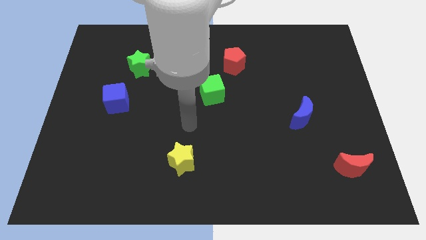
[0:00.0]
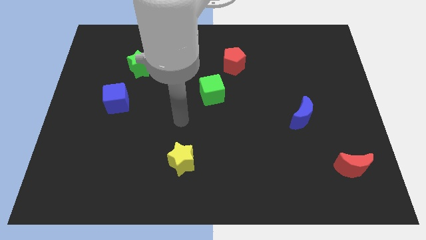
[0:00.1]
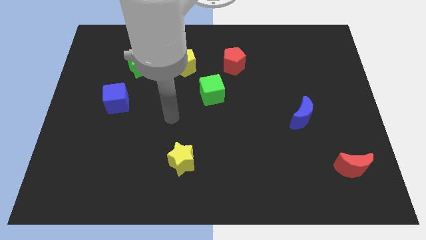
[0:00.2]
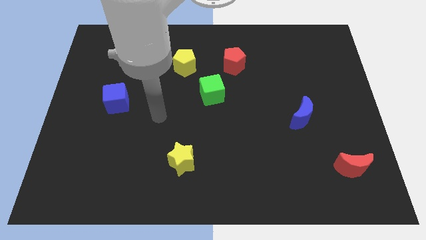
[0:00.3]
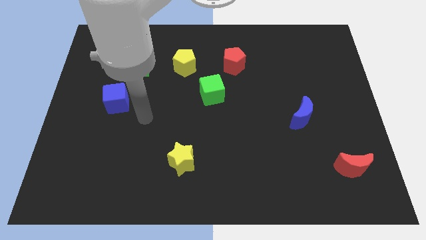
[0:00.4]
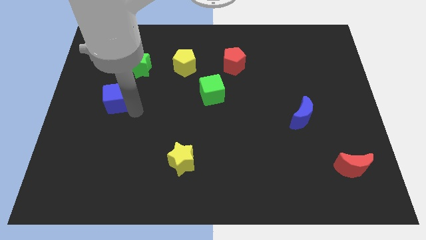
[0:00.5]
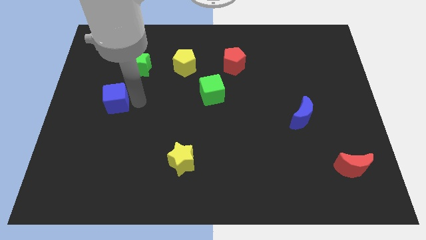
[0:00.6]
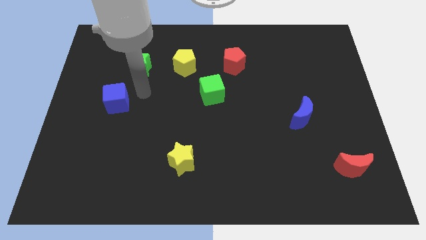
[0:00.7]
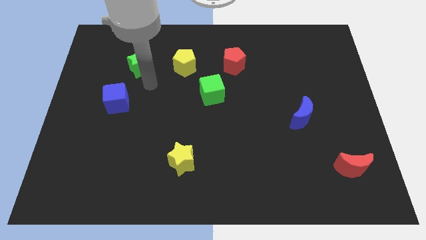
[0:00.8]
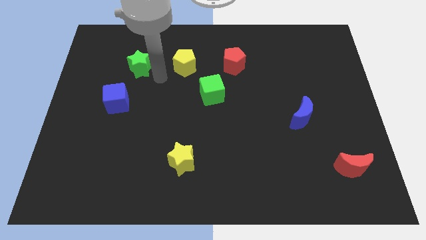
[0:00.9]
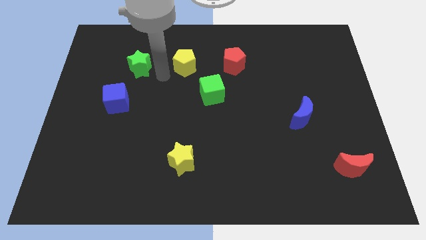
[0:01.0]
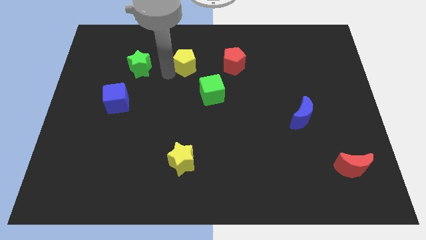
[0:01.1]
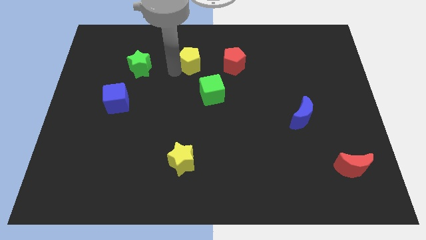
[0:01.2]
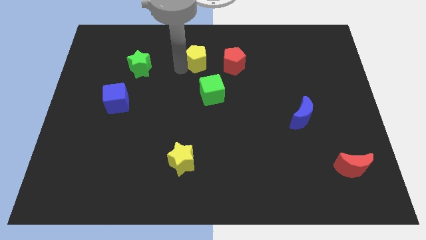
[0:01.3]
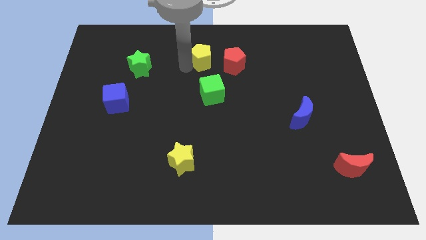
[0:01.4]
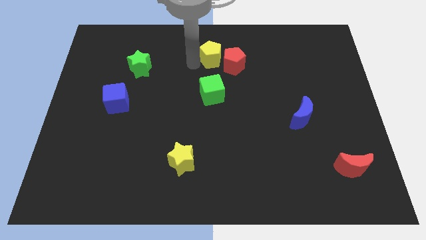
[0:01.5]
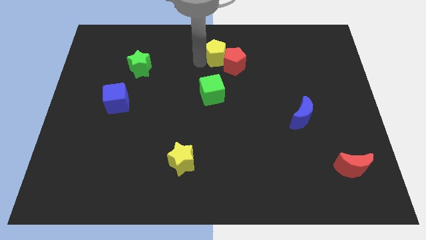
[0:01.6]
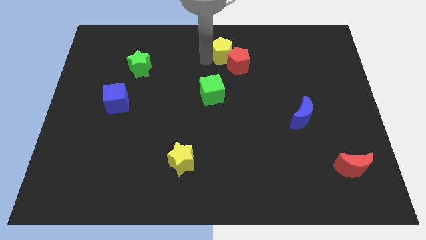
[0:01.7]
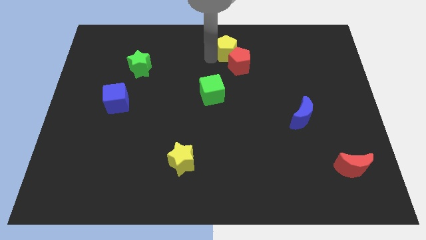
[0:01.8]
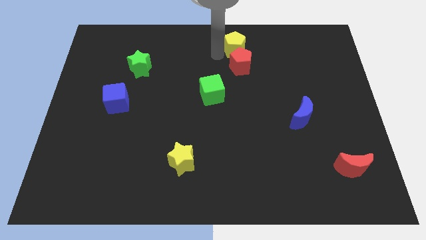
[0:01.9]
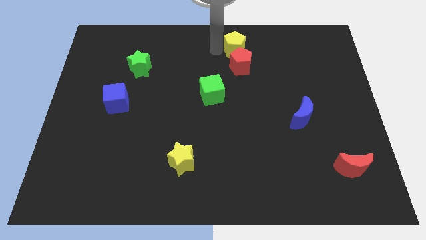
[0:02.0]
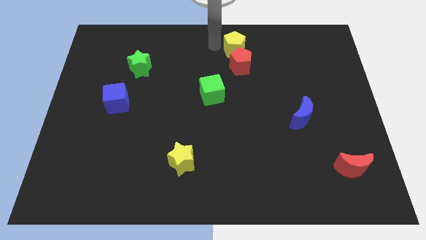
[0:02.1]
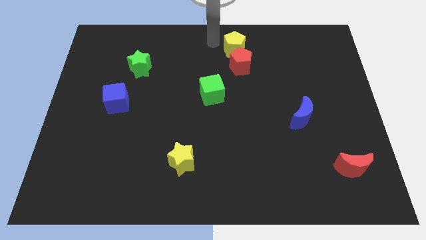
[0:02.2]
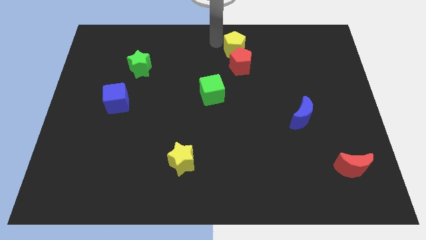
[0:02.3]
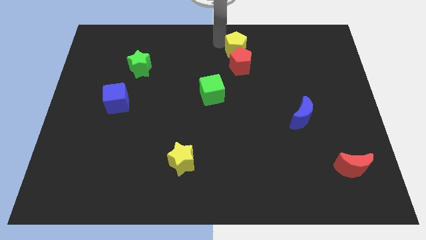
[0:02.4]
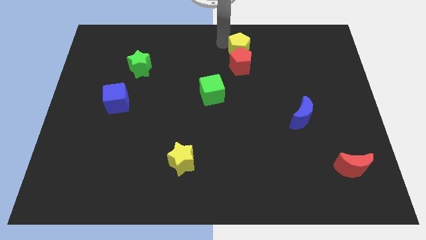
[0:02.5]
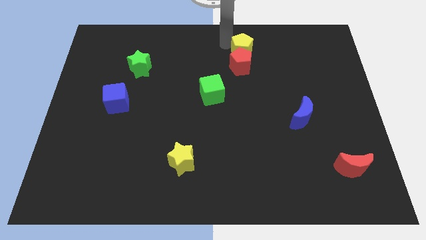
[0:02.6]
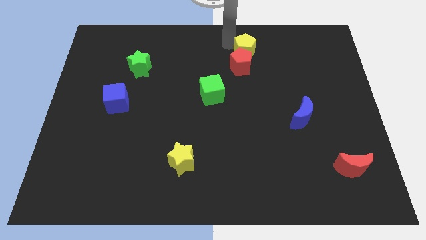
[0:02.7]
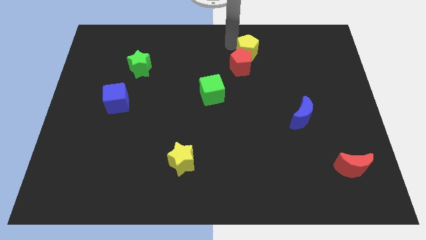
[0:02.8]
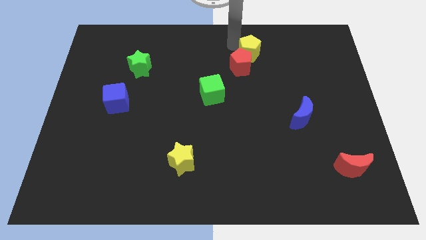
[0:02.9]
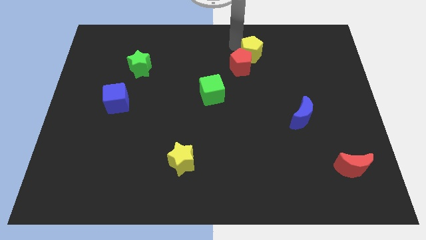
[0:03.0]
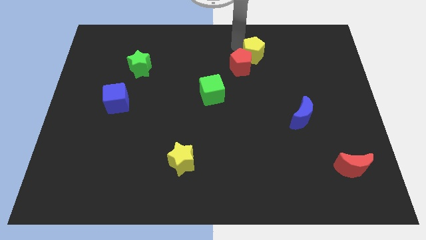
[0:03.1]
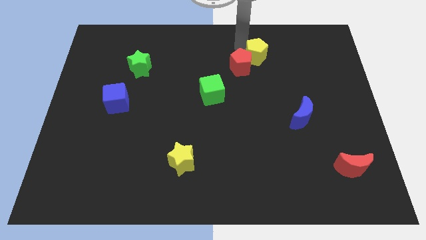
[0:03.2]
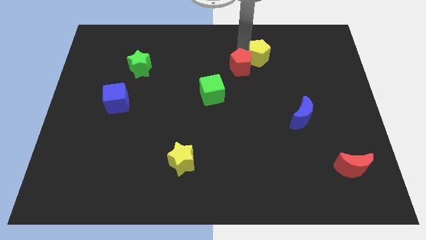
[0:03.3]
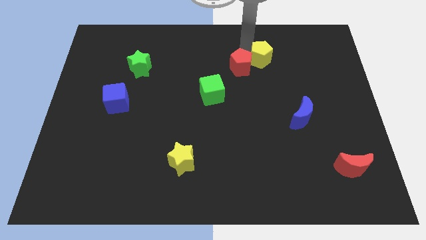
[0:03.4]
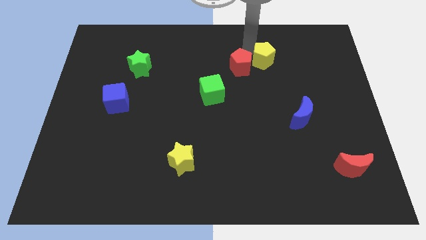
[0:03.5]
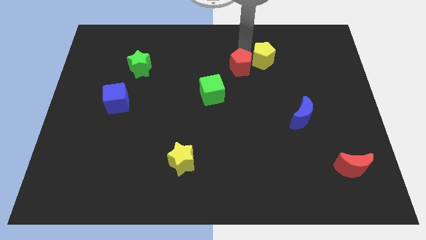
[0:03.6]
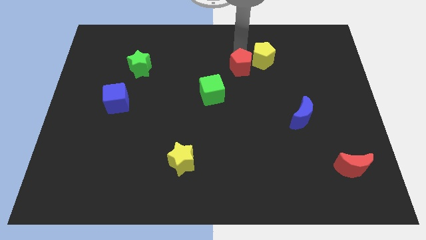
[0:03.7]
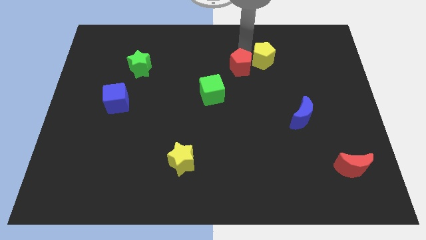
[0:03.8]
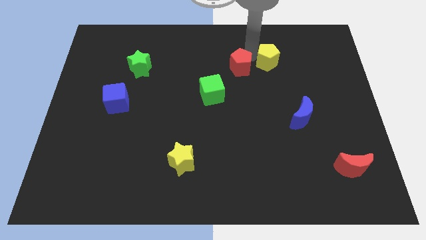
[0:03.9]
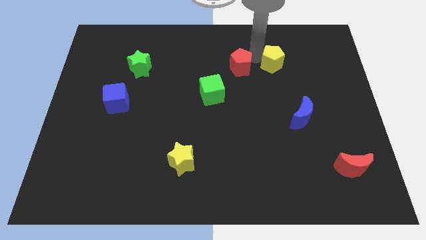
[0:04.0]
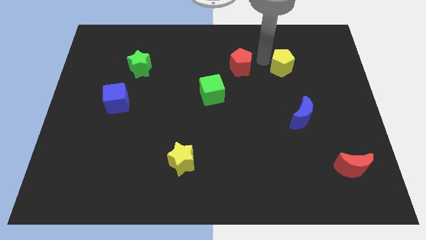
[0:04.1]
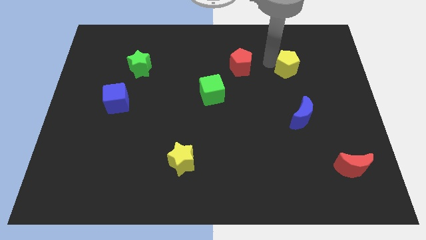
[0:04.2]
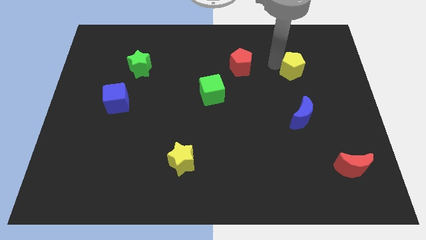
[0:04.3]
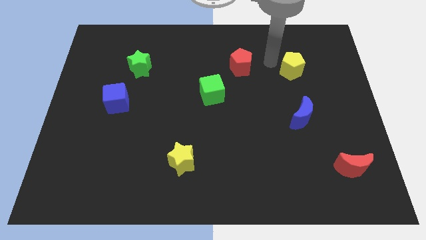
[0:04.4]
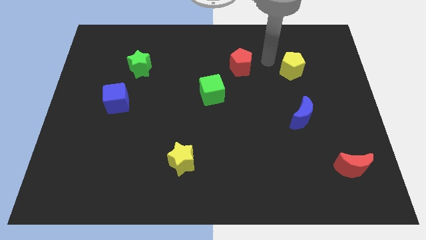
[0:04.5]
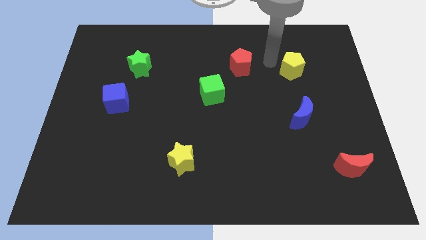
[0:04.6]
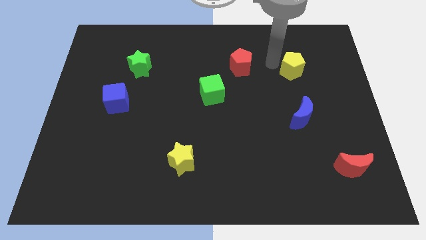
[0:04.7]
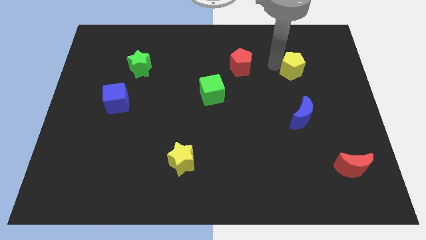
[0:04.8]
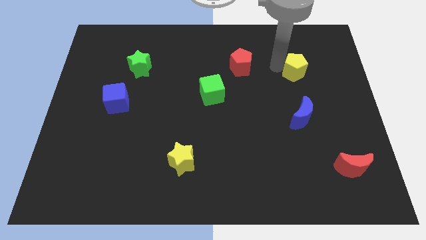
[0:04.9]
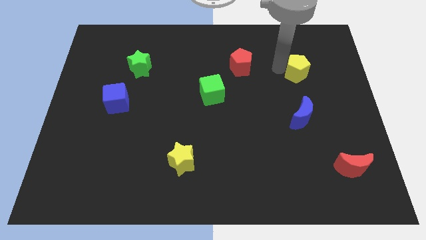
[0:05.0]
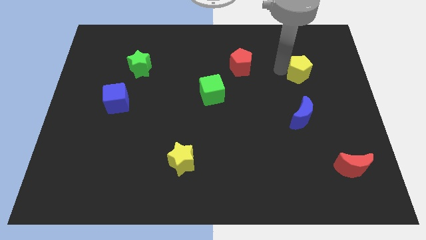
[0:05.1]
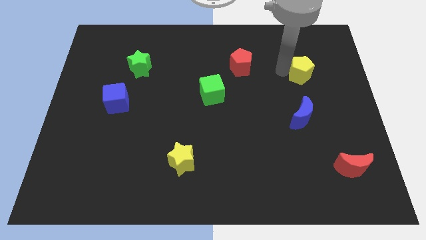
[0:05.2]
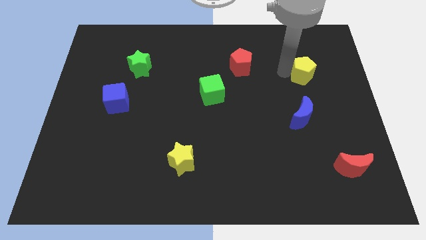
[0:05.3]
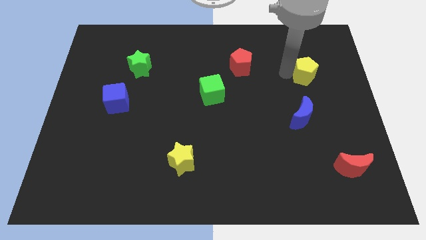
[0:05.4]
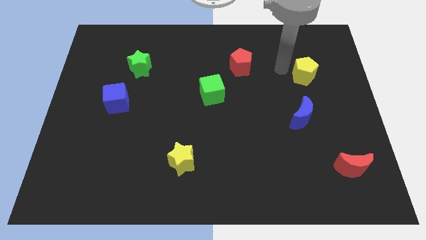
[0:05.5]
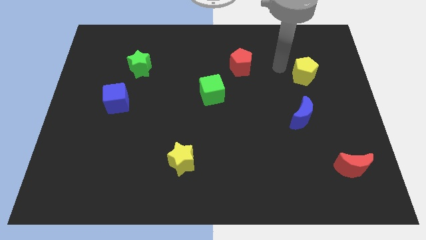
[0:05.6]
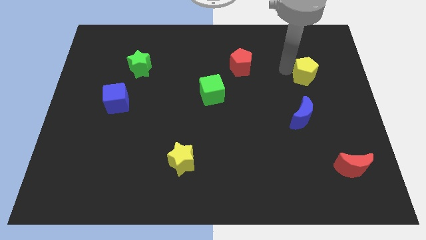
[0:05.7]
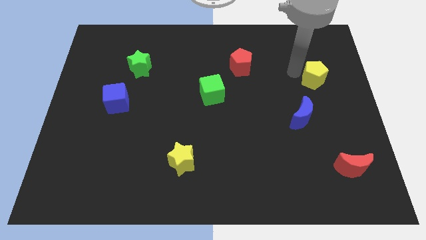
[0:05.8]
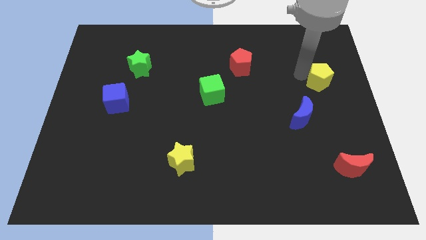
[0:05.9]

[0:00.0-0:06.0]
slide the yellow pentagon to the right side

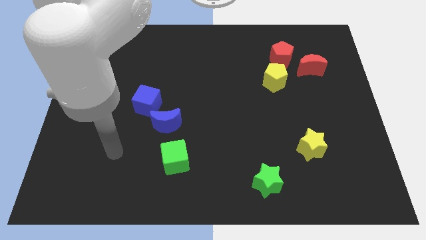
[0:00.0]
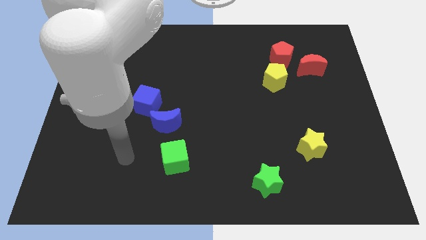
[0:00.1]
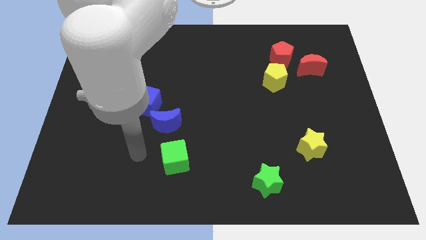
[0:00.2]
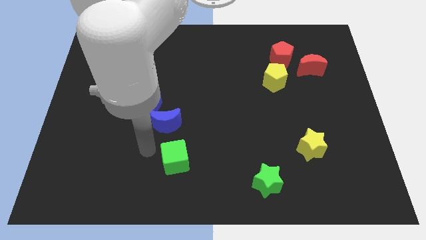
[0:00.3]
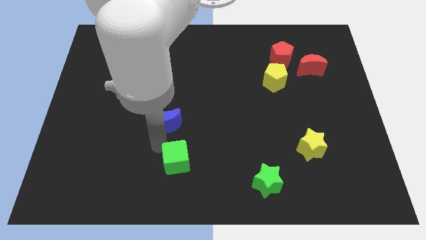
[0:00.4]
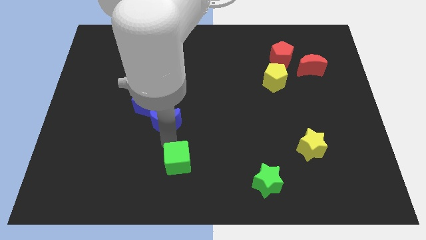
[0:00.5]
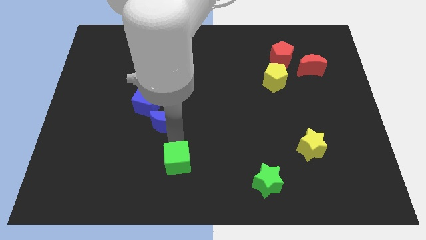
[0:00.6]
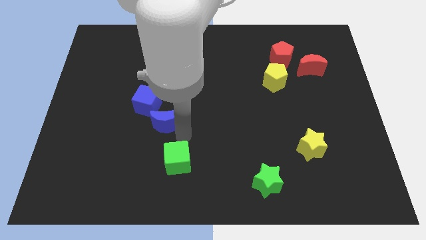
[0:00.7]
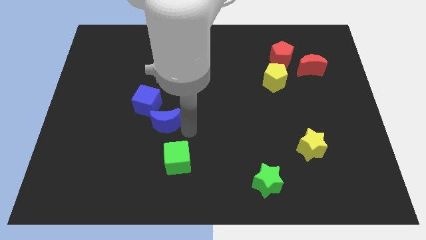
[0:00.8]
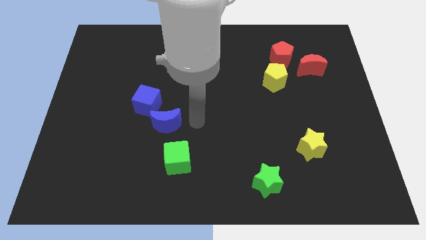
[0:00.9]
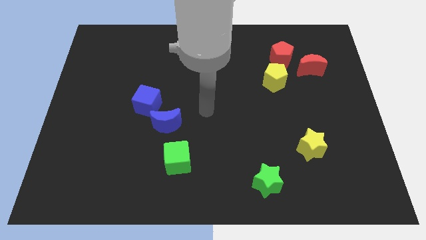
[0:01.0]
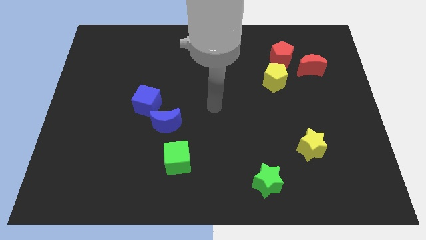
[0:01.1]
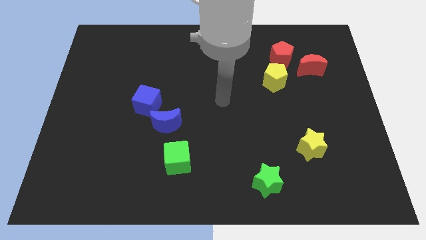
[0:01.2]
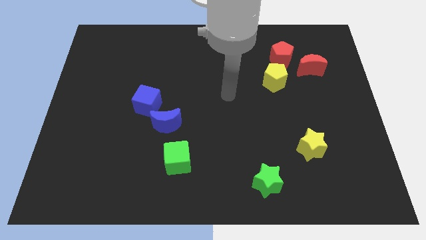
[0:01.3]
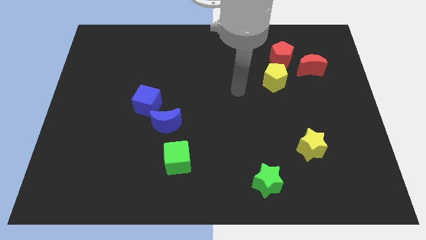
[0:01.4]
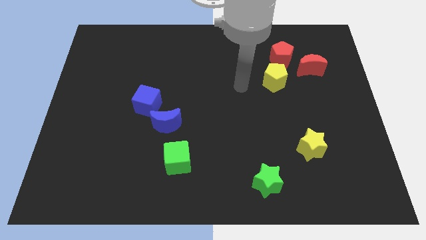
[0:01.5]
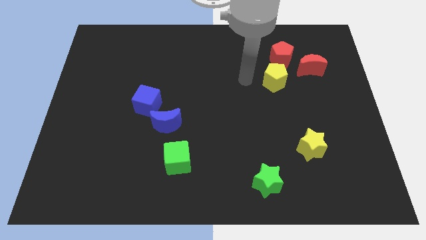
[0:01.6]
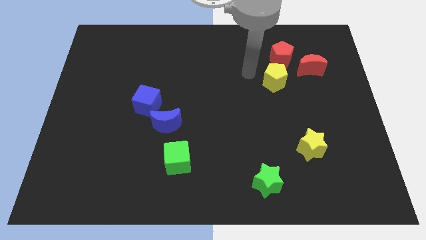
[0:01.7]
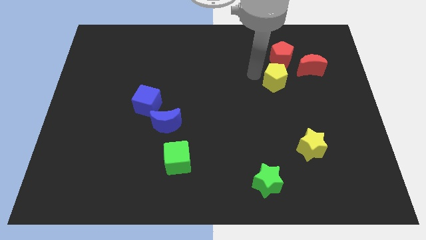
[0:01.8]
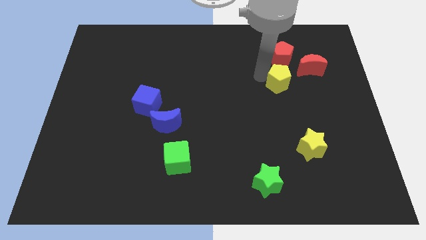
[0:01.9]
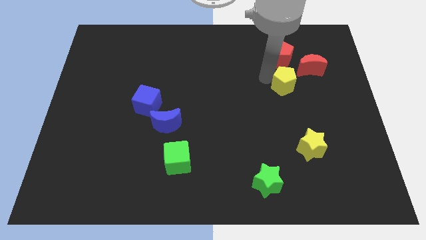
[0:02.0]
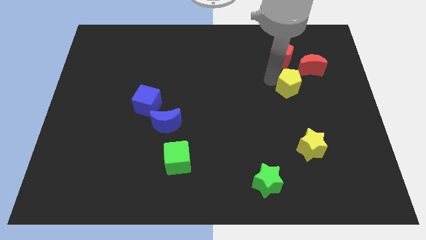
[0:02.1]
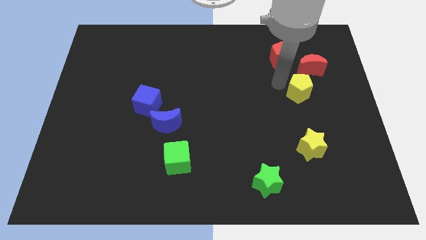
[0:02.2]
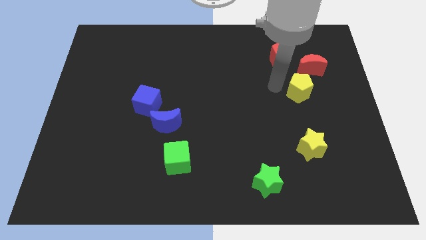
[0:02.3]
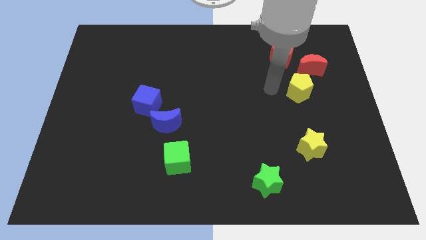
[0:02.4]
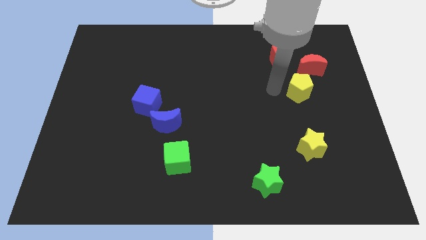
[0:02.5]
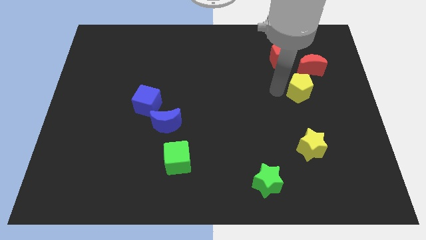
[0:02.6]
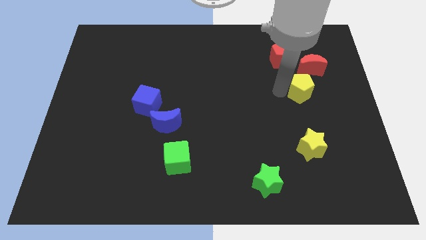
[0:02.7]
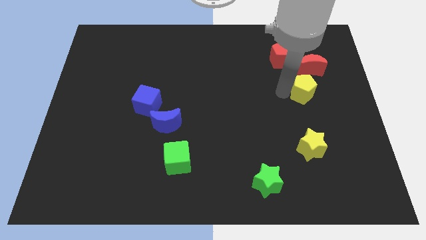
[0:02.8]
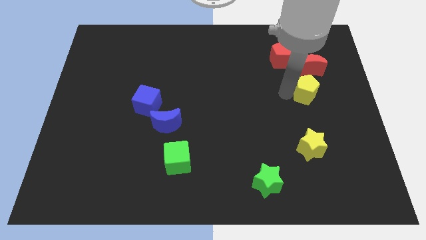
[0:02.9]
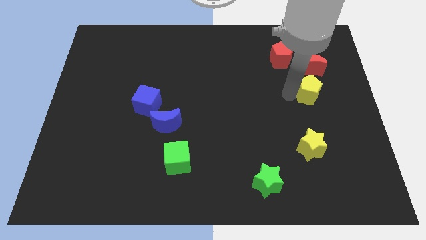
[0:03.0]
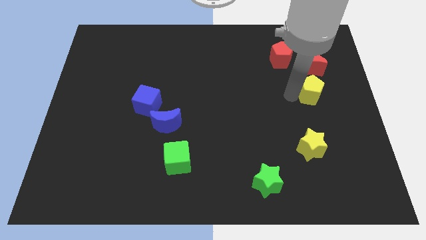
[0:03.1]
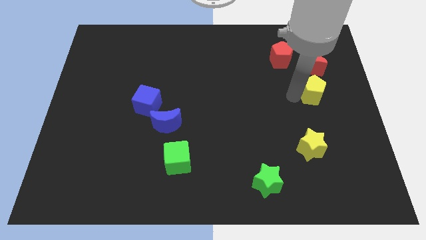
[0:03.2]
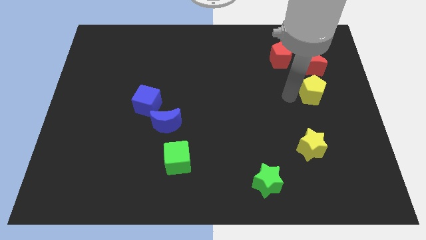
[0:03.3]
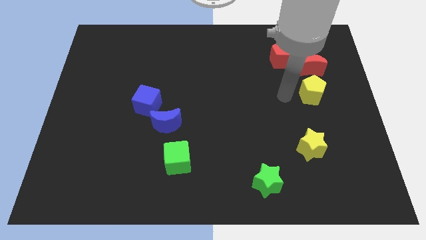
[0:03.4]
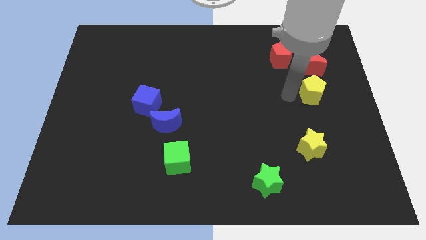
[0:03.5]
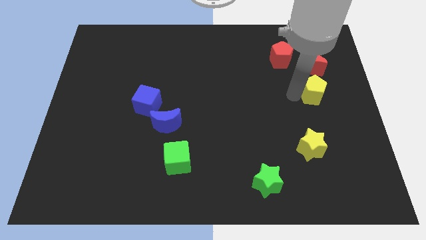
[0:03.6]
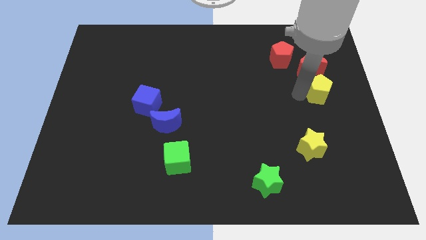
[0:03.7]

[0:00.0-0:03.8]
move the yellow pentagon to the right side of the board
